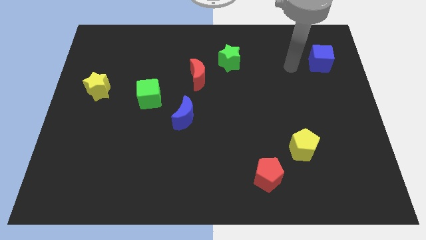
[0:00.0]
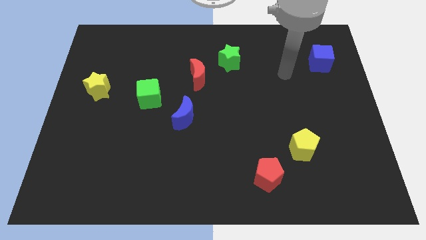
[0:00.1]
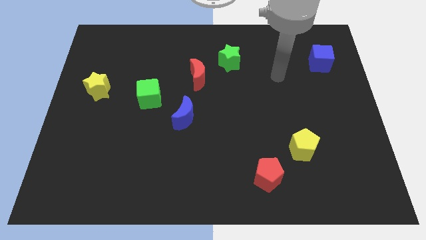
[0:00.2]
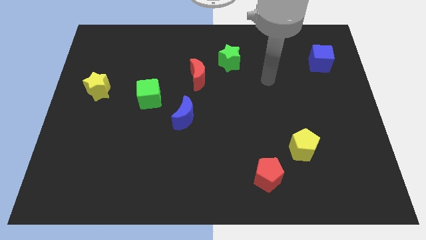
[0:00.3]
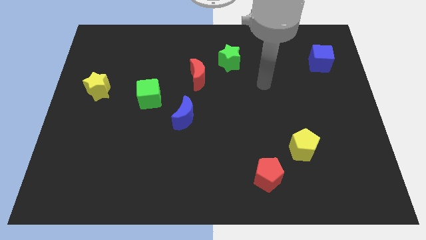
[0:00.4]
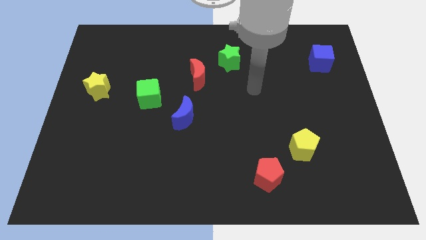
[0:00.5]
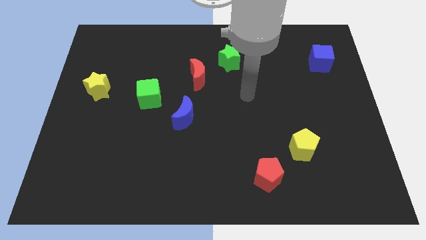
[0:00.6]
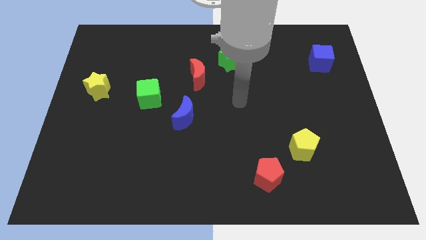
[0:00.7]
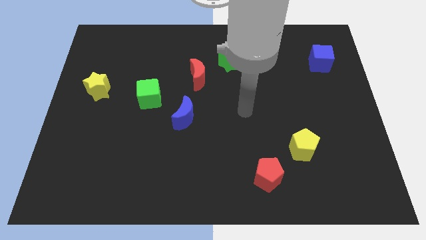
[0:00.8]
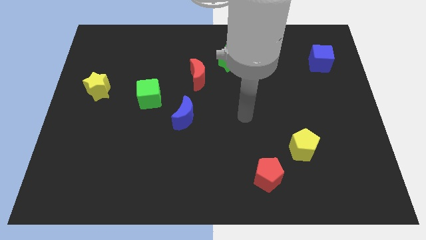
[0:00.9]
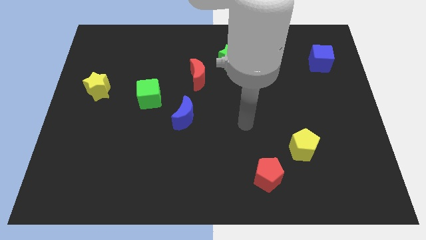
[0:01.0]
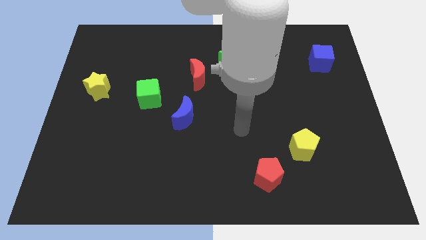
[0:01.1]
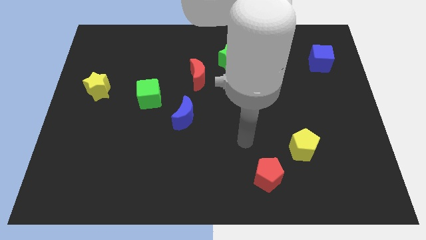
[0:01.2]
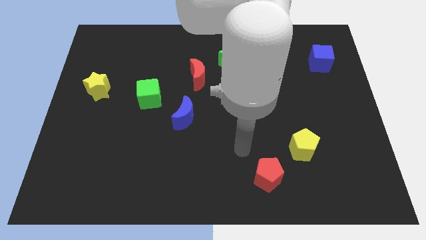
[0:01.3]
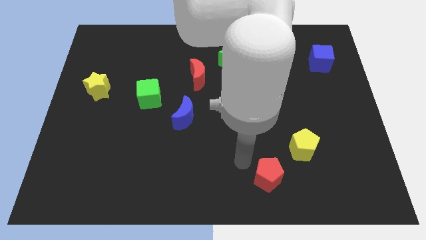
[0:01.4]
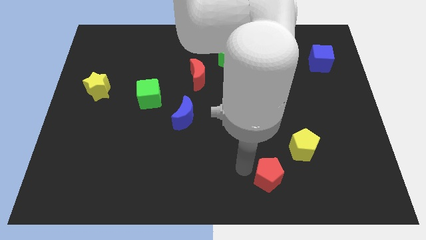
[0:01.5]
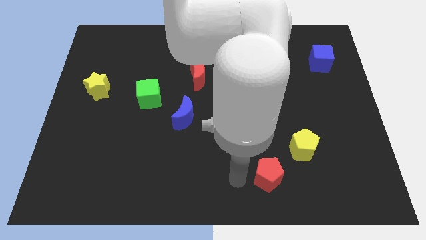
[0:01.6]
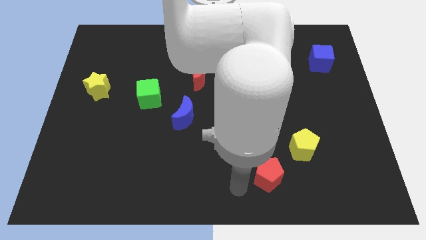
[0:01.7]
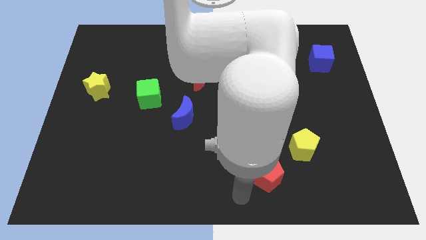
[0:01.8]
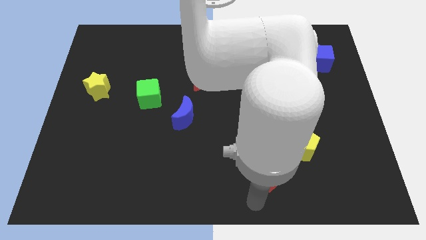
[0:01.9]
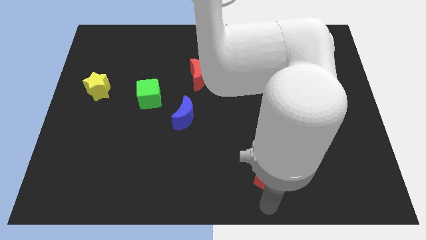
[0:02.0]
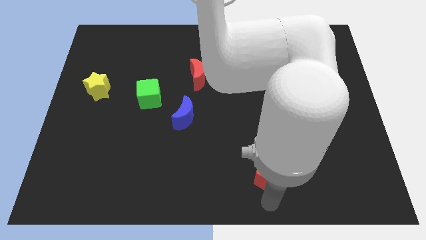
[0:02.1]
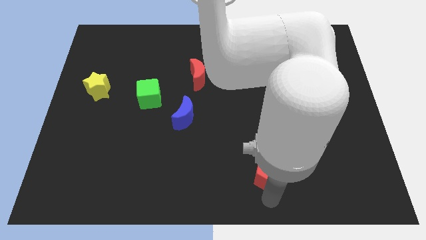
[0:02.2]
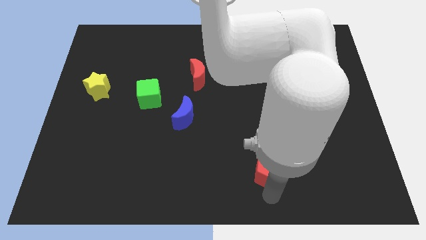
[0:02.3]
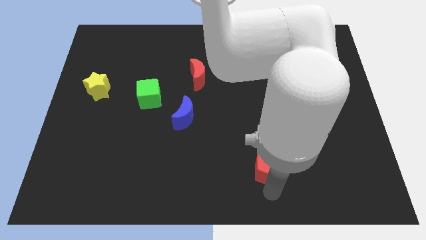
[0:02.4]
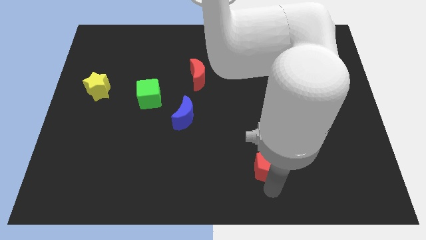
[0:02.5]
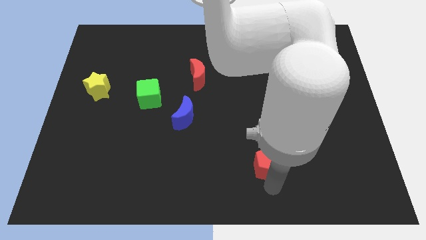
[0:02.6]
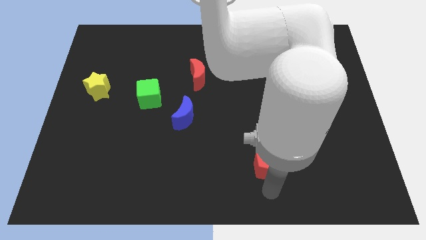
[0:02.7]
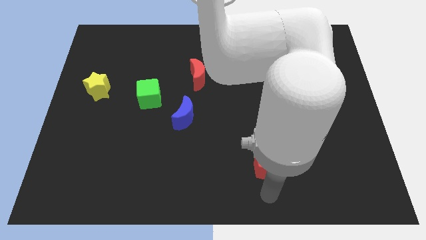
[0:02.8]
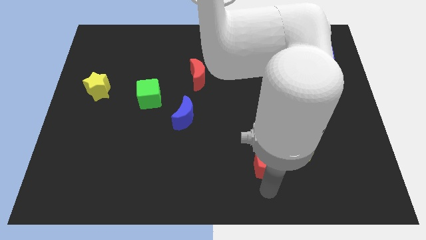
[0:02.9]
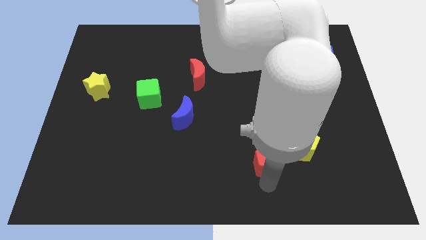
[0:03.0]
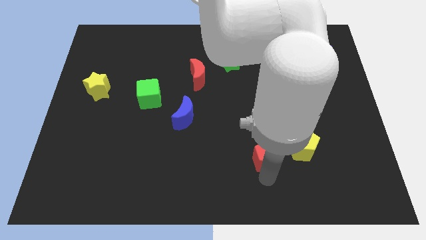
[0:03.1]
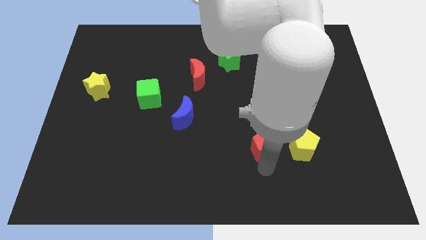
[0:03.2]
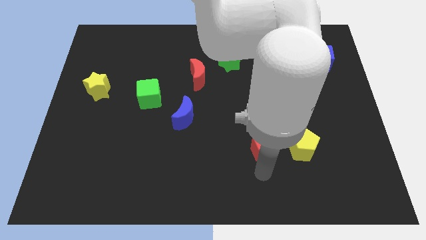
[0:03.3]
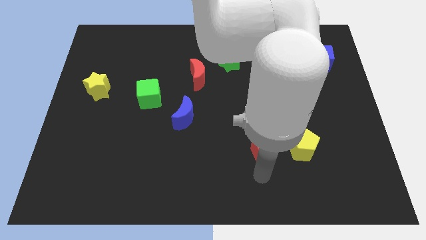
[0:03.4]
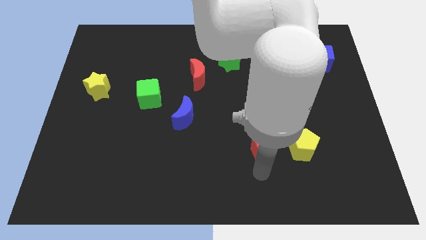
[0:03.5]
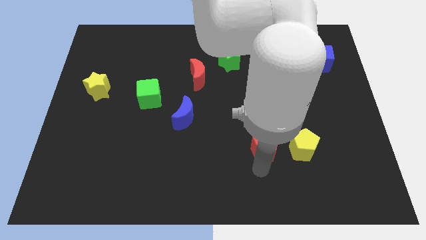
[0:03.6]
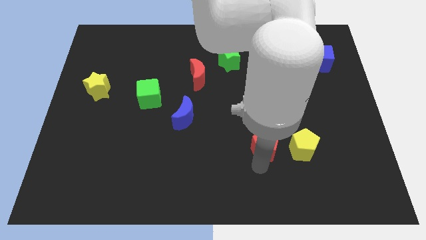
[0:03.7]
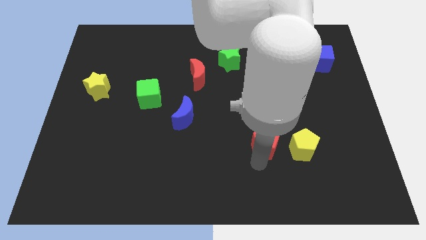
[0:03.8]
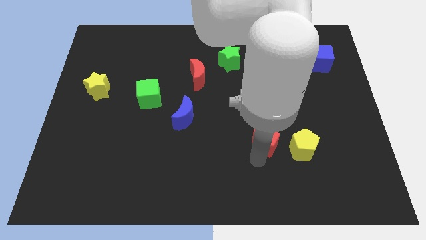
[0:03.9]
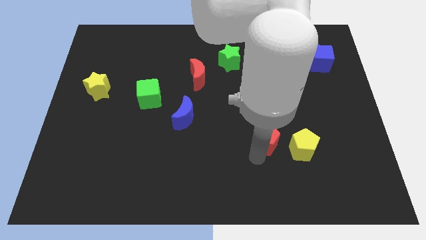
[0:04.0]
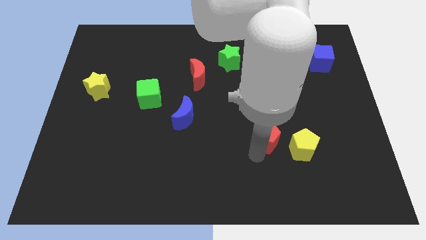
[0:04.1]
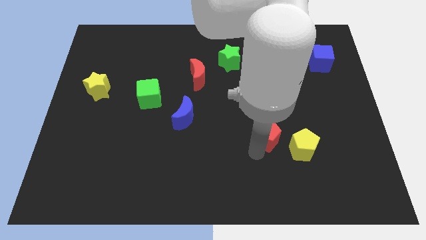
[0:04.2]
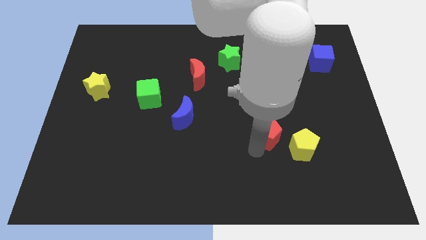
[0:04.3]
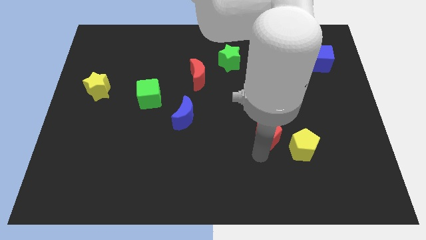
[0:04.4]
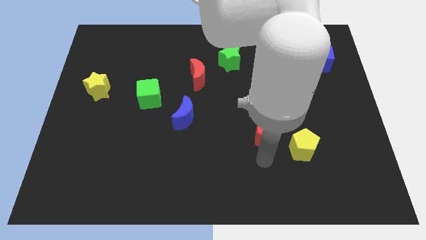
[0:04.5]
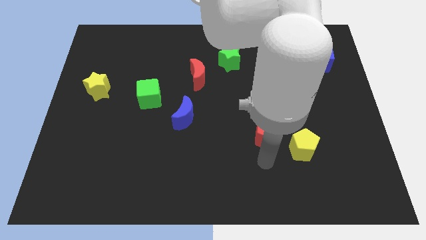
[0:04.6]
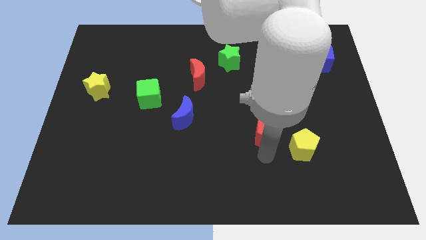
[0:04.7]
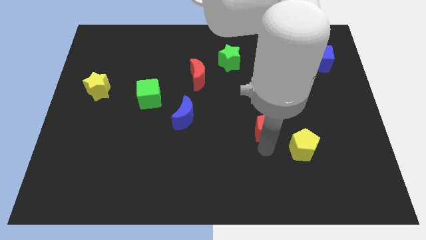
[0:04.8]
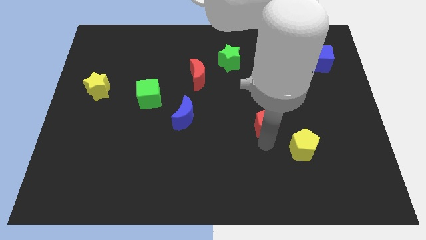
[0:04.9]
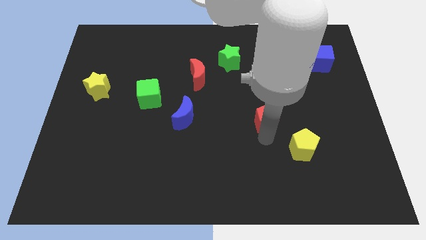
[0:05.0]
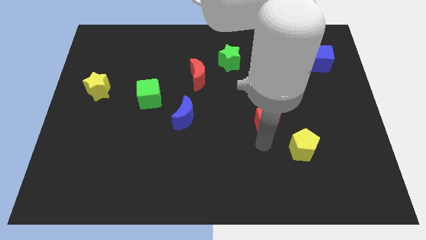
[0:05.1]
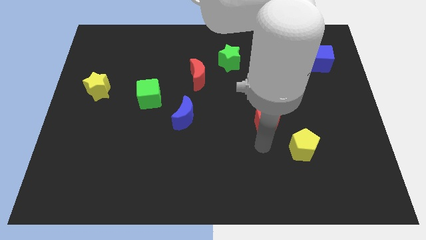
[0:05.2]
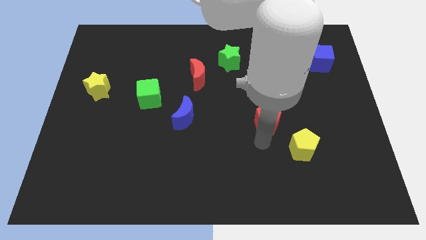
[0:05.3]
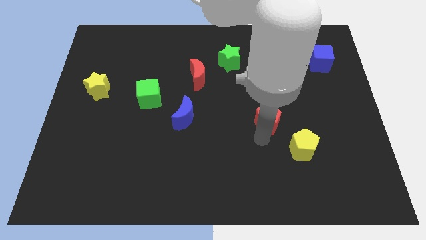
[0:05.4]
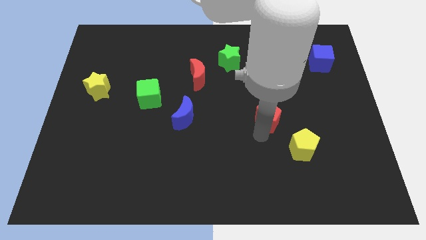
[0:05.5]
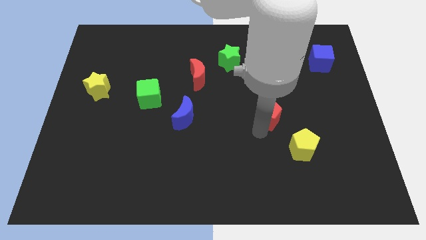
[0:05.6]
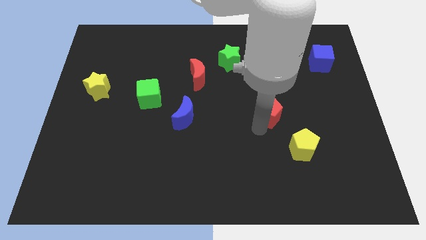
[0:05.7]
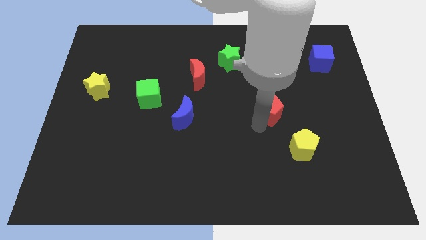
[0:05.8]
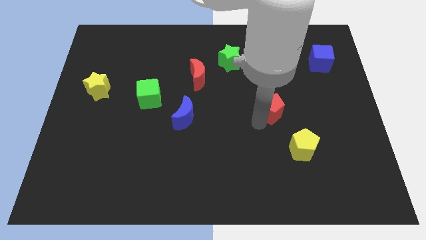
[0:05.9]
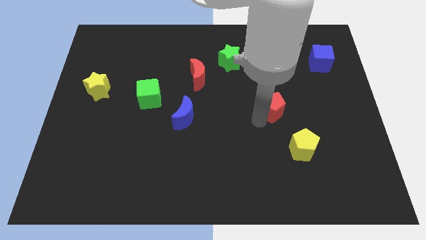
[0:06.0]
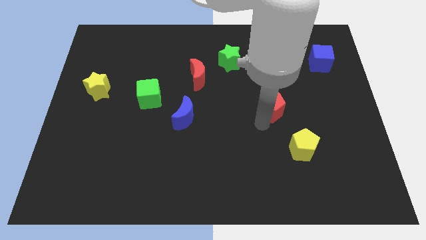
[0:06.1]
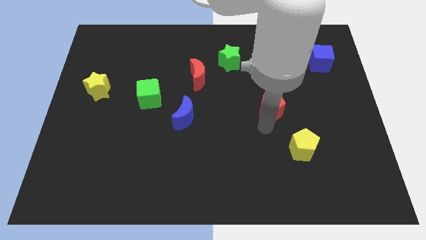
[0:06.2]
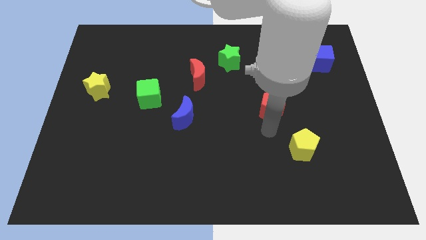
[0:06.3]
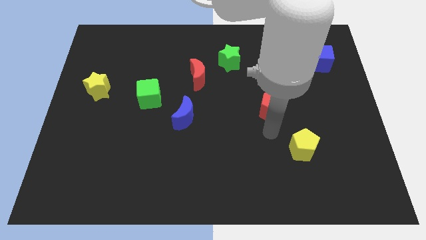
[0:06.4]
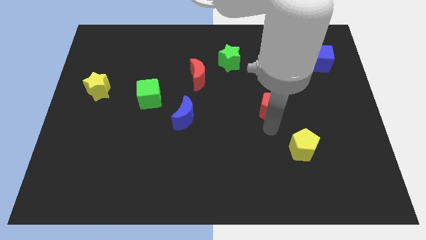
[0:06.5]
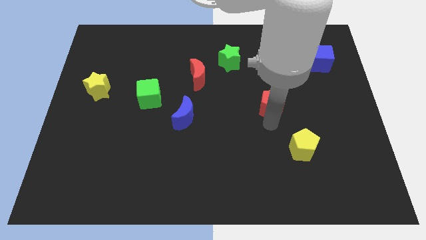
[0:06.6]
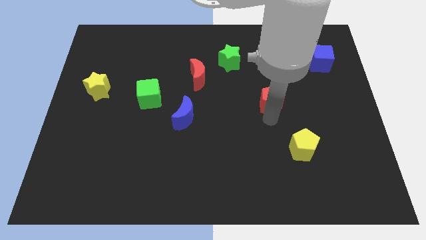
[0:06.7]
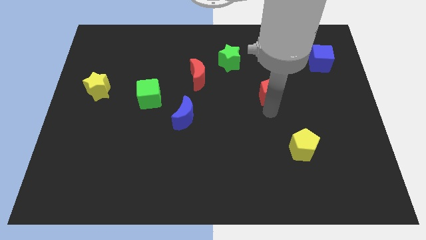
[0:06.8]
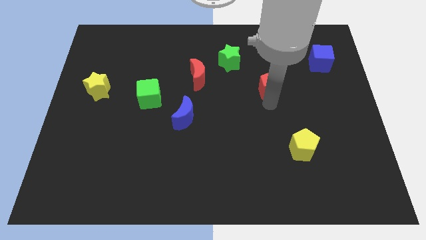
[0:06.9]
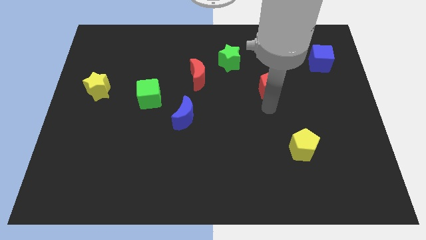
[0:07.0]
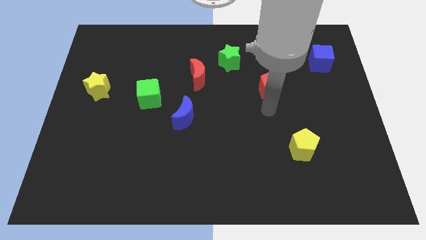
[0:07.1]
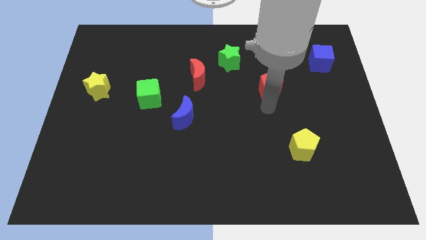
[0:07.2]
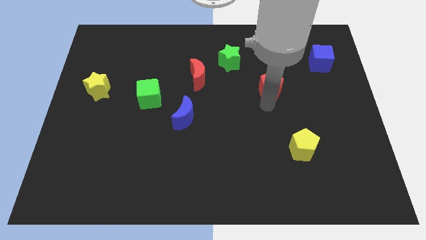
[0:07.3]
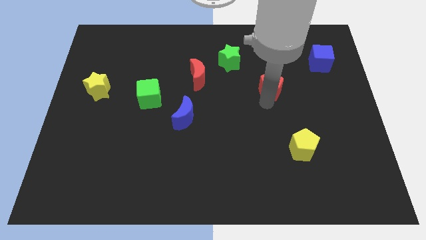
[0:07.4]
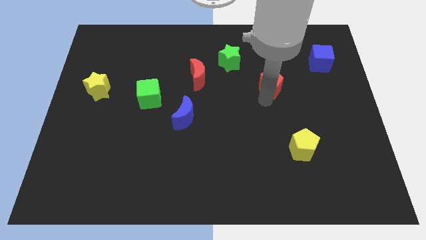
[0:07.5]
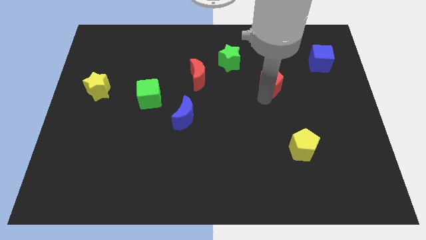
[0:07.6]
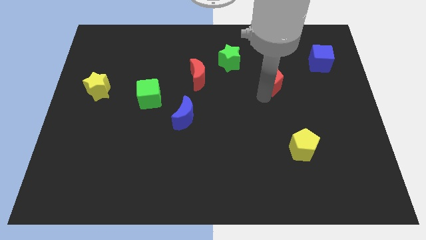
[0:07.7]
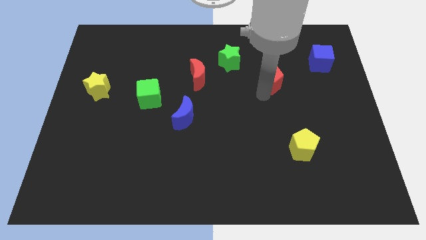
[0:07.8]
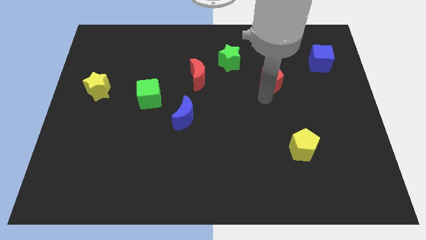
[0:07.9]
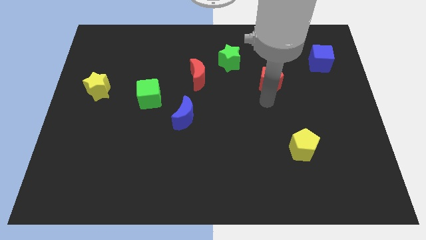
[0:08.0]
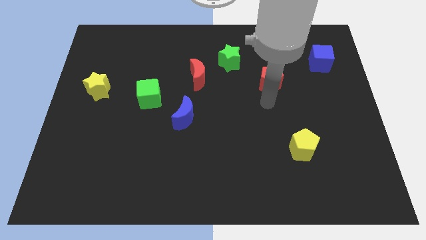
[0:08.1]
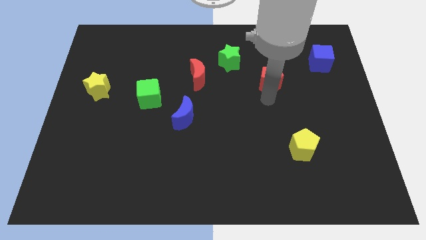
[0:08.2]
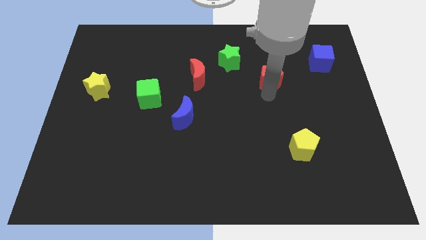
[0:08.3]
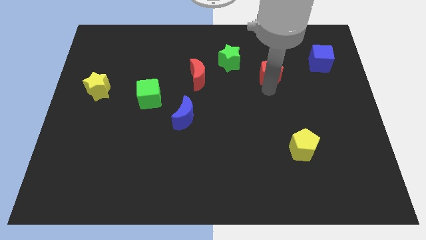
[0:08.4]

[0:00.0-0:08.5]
push the red pentagon right of the green star
